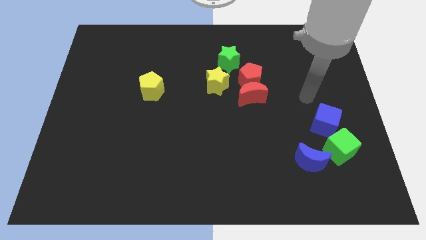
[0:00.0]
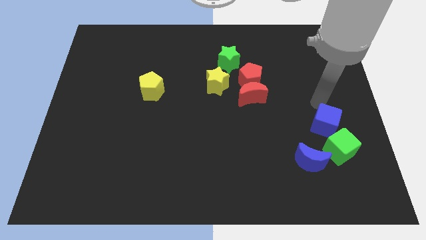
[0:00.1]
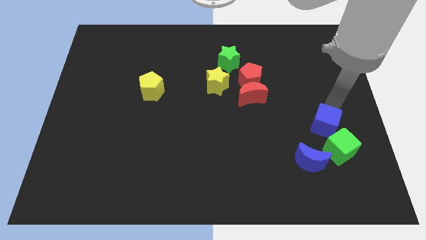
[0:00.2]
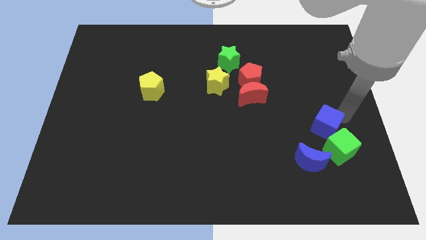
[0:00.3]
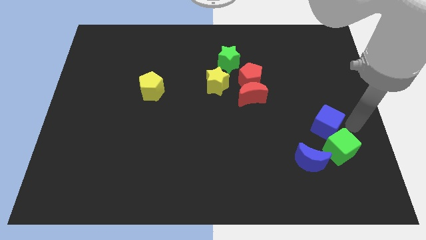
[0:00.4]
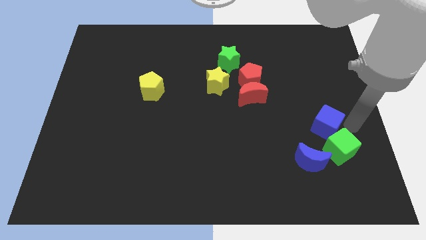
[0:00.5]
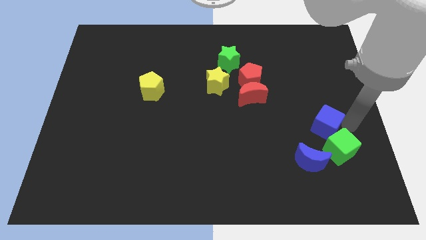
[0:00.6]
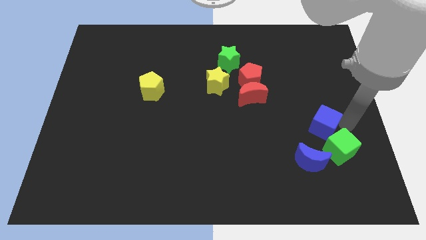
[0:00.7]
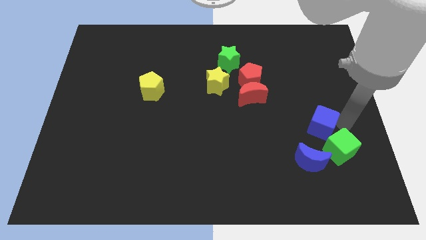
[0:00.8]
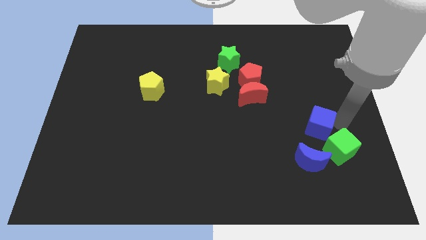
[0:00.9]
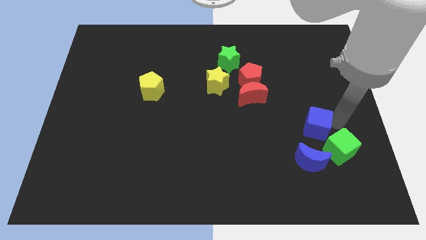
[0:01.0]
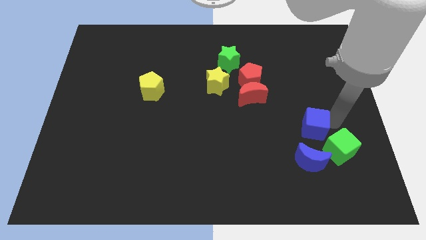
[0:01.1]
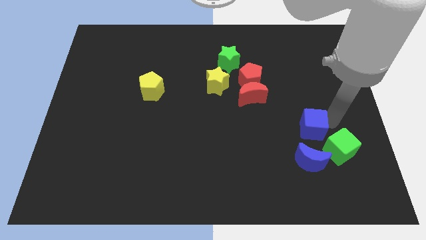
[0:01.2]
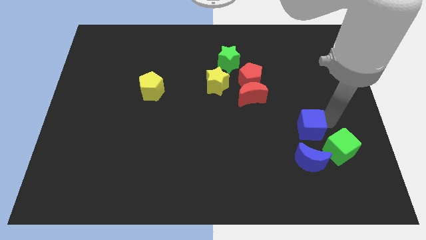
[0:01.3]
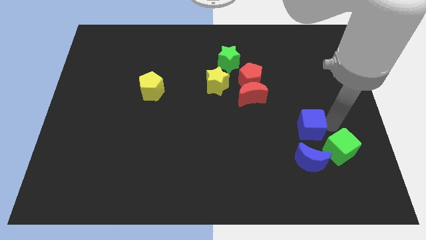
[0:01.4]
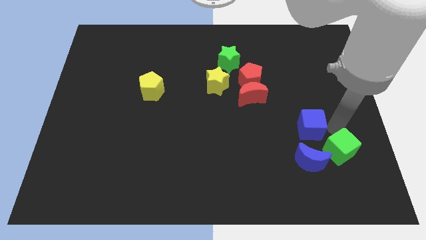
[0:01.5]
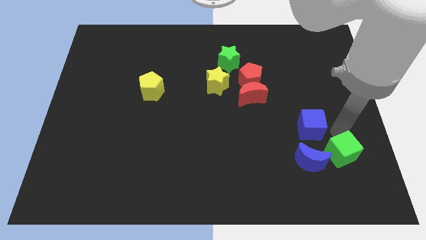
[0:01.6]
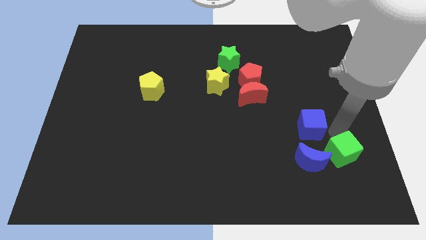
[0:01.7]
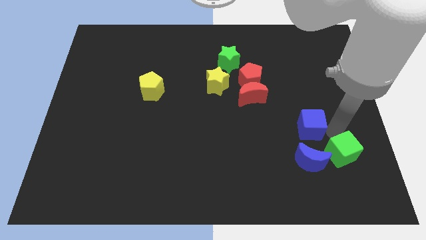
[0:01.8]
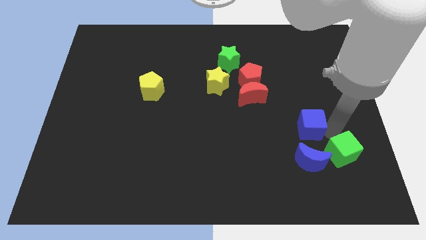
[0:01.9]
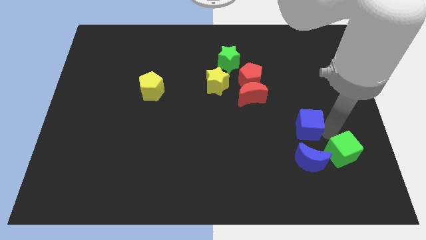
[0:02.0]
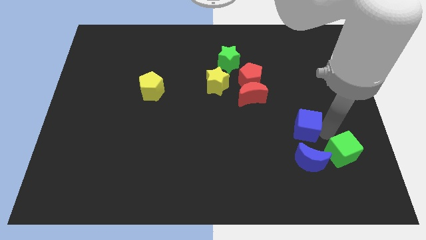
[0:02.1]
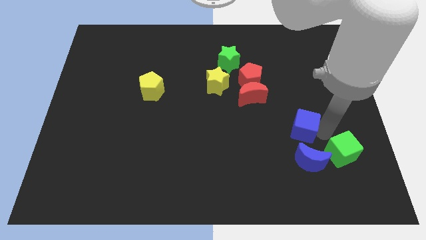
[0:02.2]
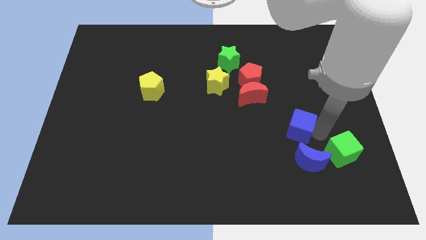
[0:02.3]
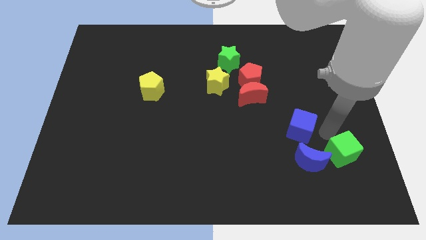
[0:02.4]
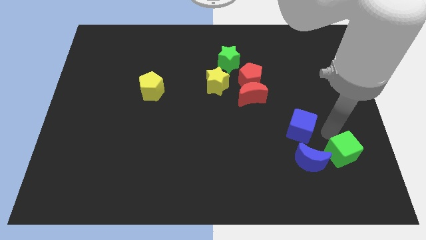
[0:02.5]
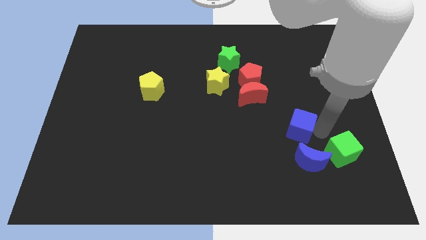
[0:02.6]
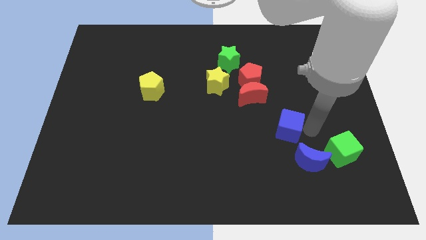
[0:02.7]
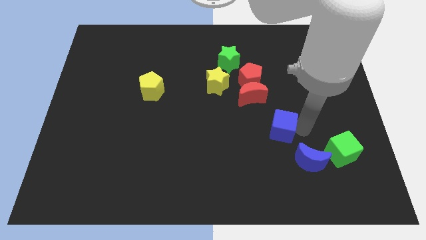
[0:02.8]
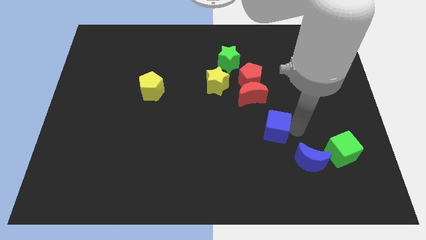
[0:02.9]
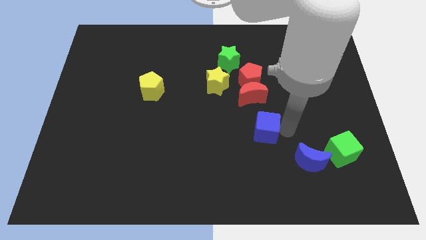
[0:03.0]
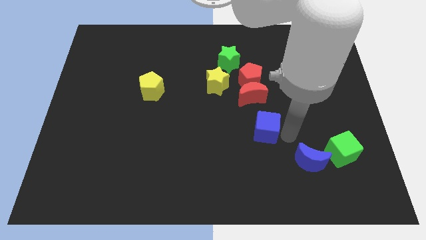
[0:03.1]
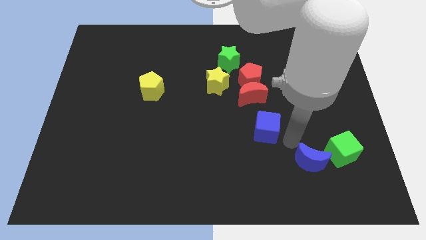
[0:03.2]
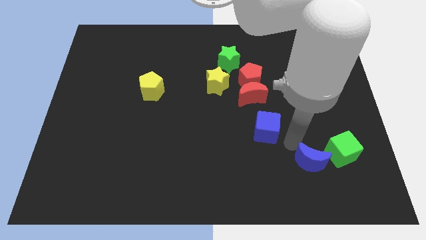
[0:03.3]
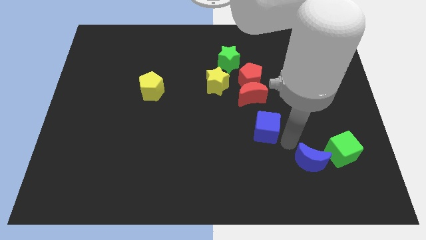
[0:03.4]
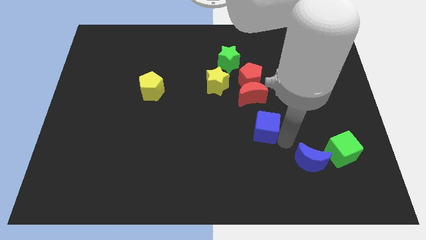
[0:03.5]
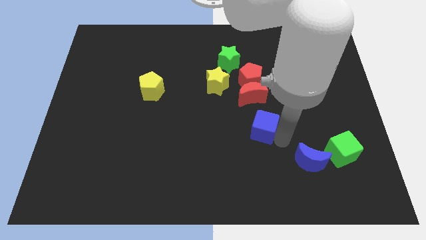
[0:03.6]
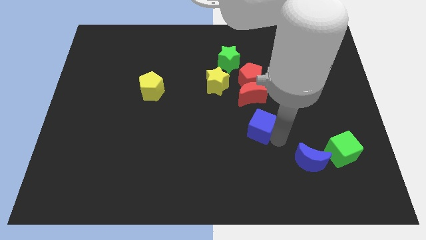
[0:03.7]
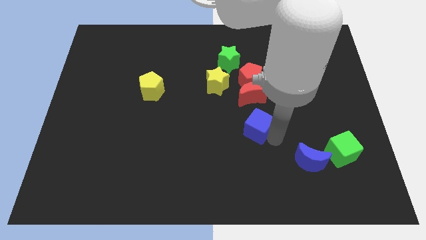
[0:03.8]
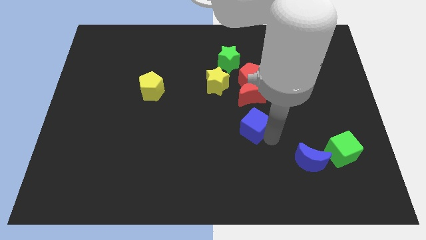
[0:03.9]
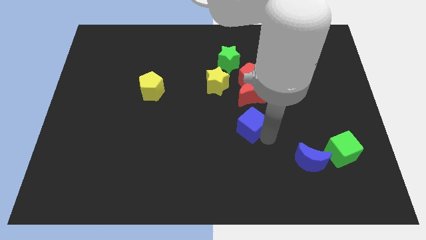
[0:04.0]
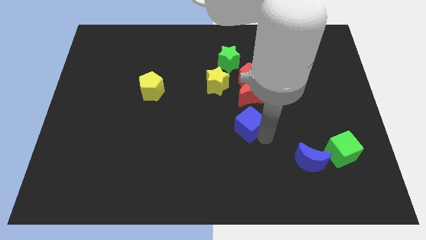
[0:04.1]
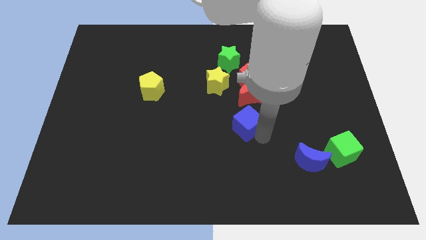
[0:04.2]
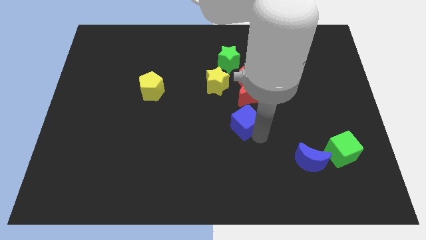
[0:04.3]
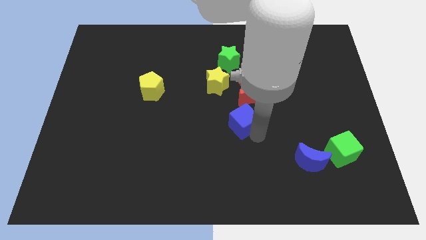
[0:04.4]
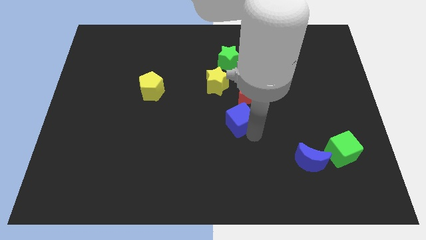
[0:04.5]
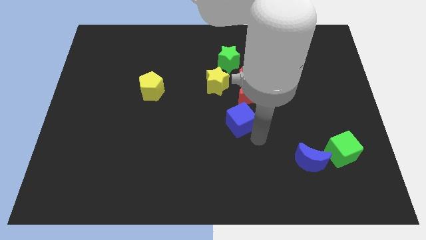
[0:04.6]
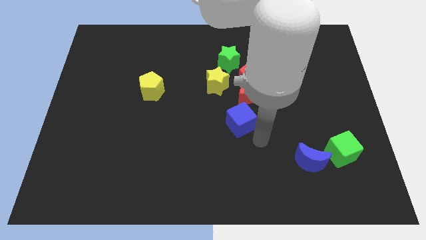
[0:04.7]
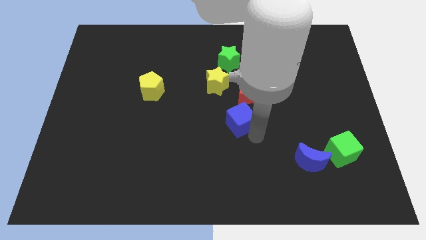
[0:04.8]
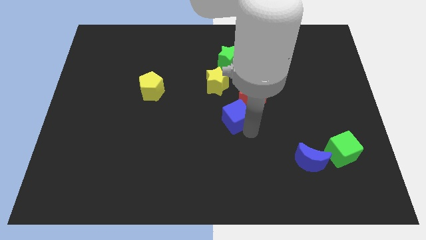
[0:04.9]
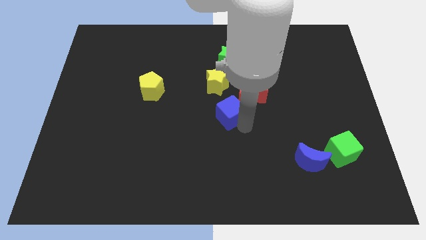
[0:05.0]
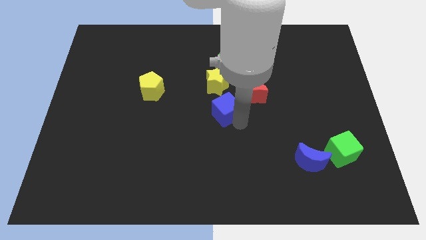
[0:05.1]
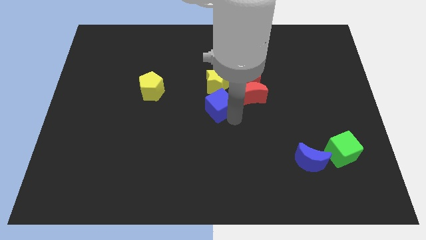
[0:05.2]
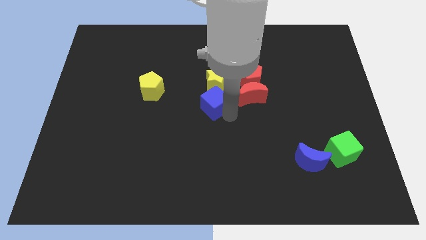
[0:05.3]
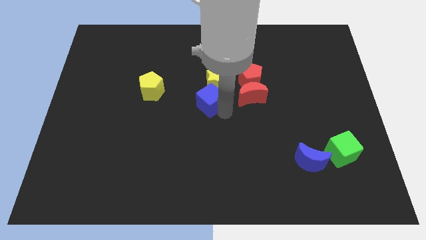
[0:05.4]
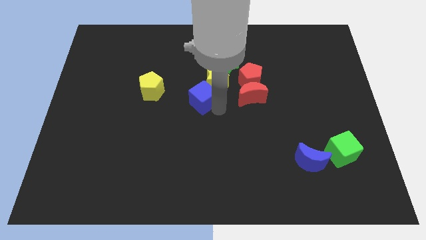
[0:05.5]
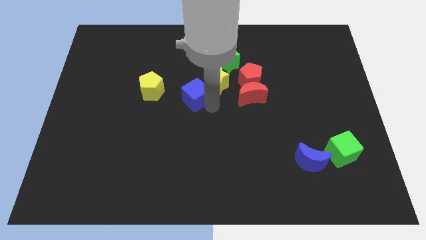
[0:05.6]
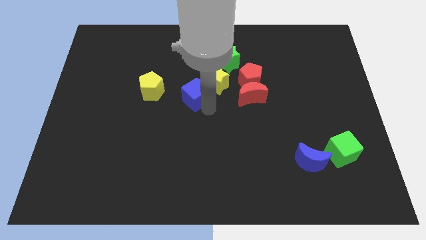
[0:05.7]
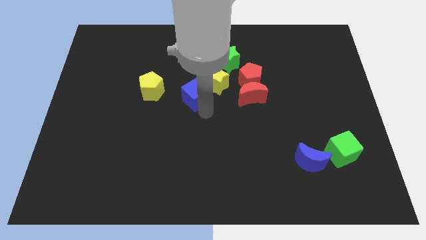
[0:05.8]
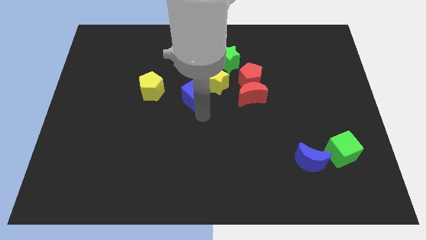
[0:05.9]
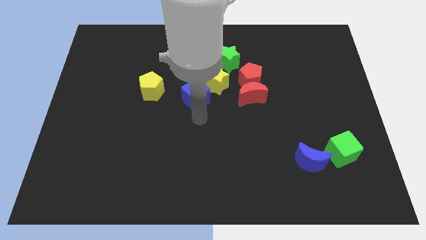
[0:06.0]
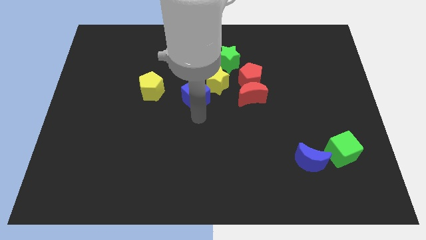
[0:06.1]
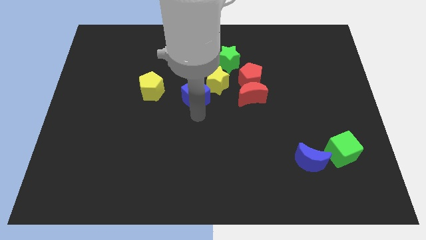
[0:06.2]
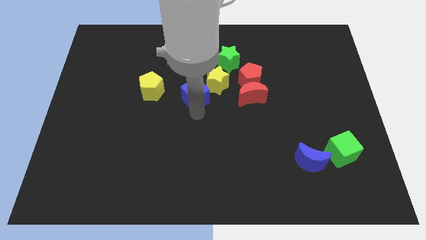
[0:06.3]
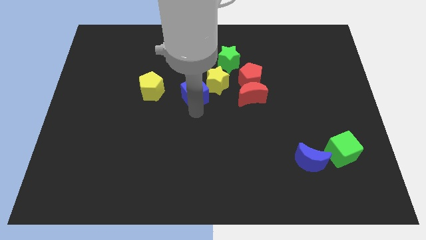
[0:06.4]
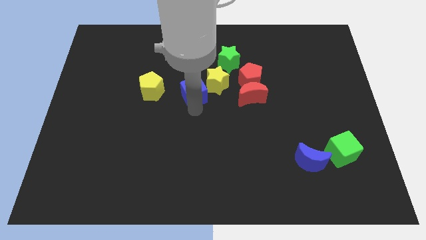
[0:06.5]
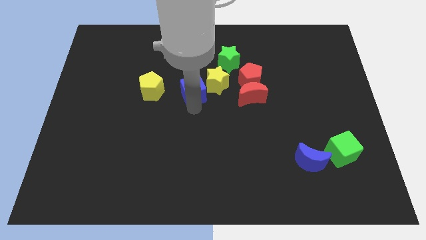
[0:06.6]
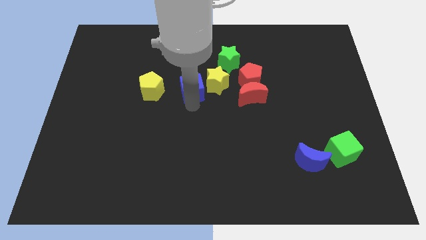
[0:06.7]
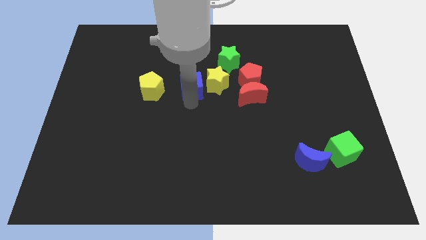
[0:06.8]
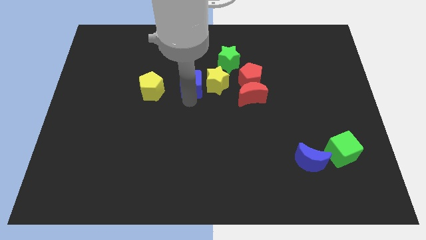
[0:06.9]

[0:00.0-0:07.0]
put the blue cube to the top left of the yellow star

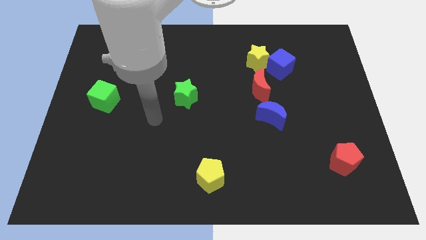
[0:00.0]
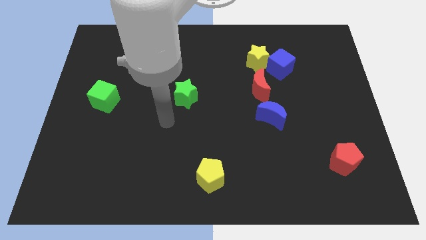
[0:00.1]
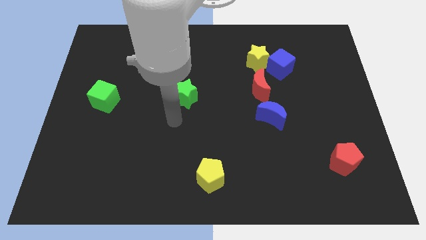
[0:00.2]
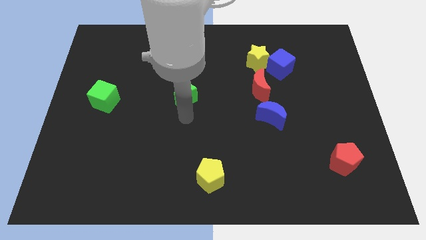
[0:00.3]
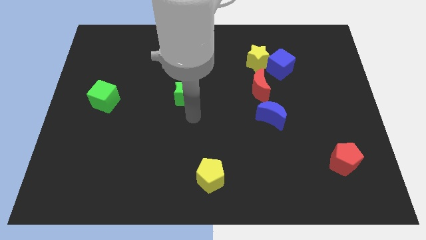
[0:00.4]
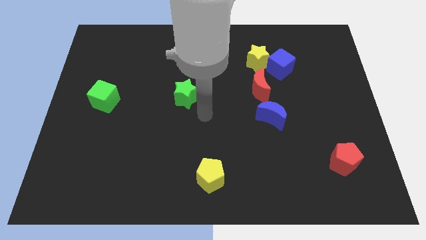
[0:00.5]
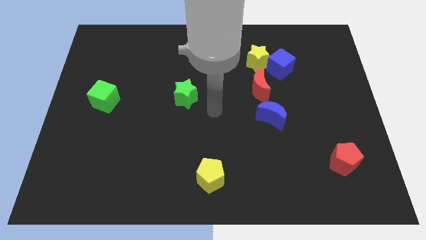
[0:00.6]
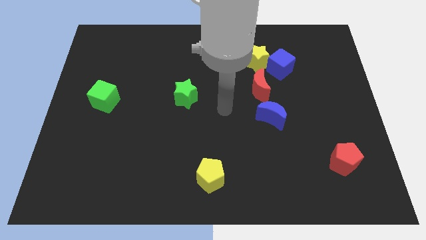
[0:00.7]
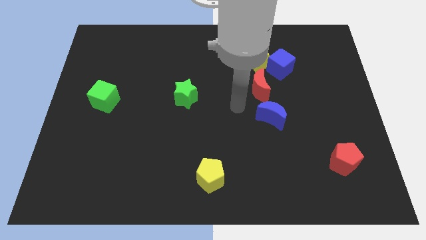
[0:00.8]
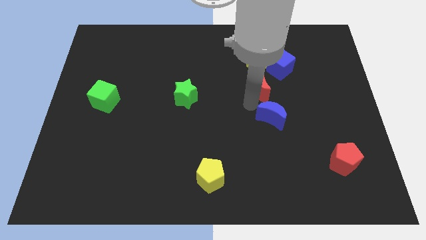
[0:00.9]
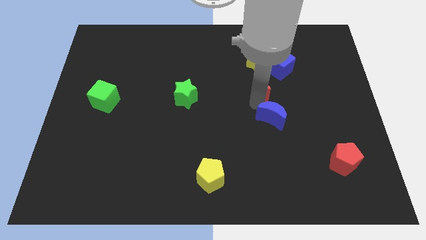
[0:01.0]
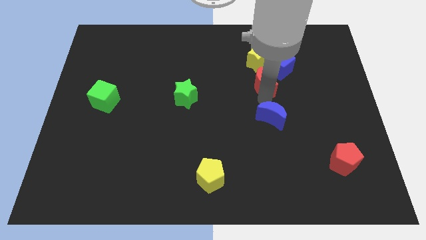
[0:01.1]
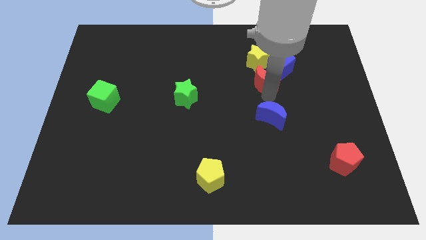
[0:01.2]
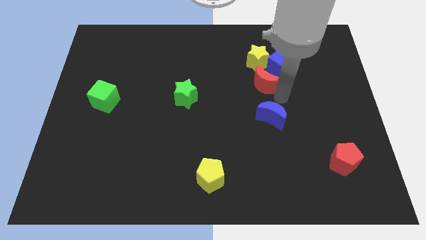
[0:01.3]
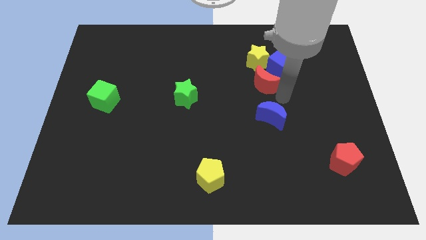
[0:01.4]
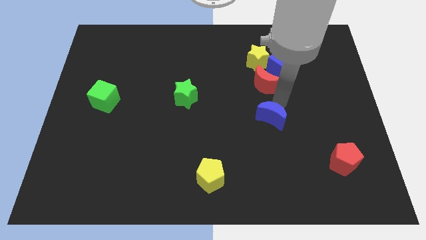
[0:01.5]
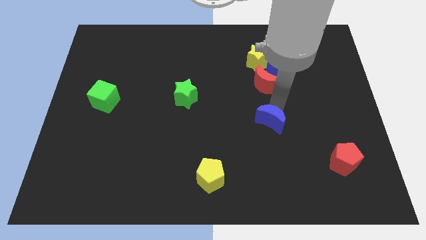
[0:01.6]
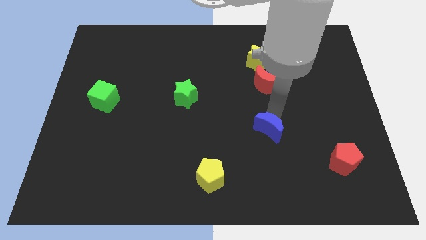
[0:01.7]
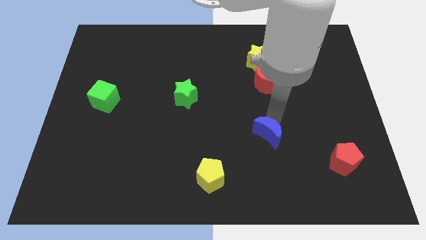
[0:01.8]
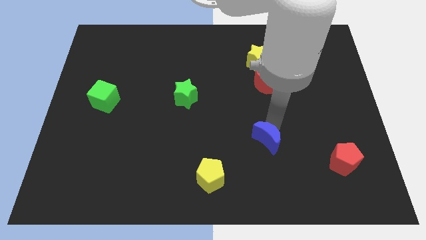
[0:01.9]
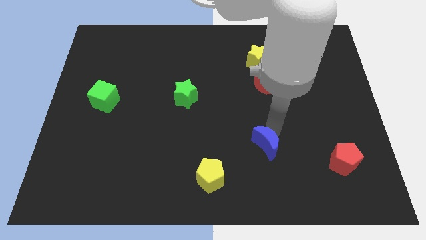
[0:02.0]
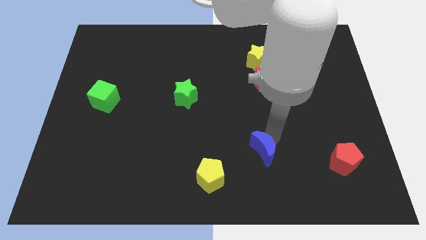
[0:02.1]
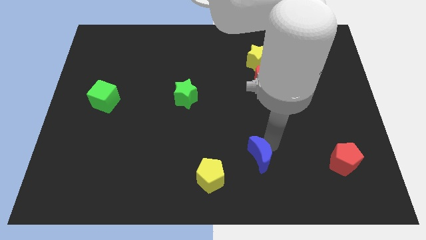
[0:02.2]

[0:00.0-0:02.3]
move the blue moon to the top right of the yellow pentagon
